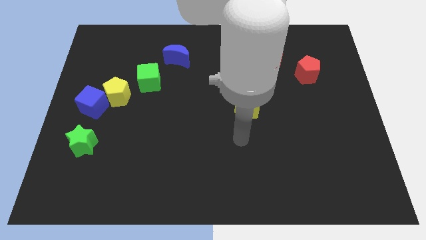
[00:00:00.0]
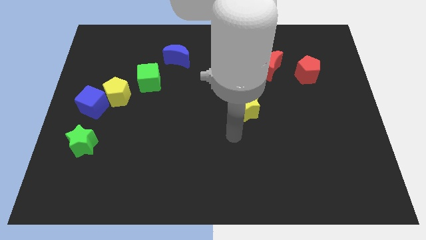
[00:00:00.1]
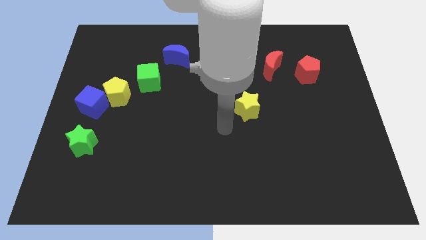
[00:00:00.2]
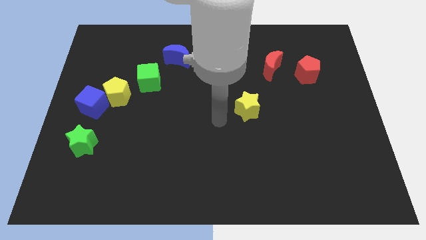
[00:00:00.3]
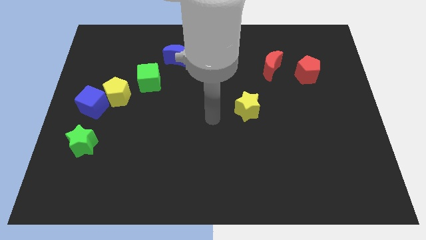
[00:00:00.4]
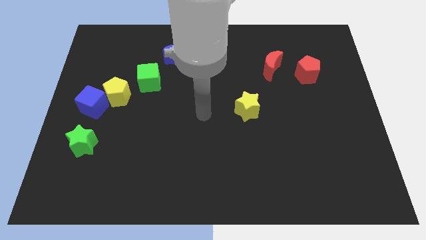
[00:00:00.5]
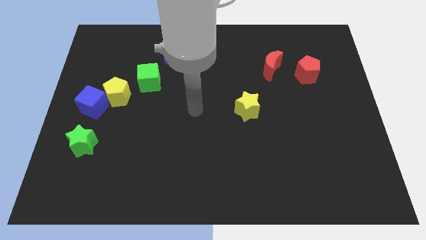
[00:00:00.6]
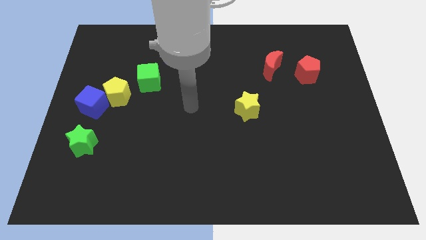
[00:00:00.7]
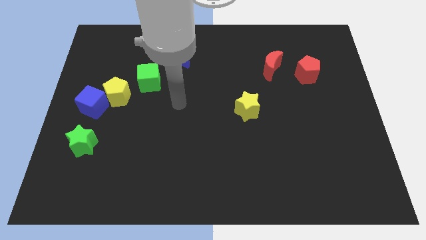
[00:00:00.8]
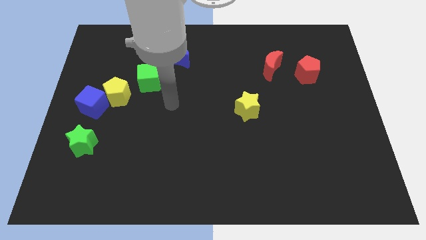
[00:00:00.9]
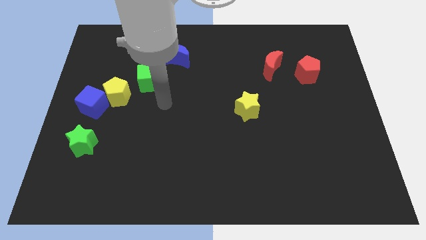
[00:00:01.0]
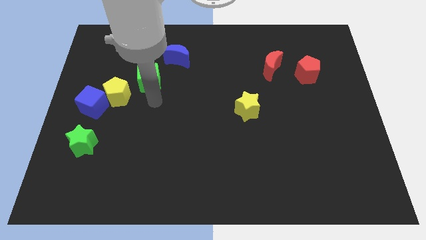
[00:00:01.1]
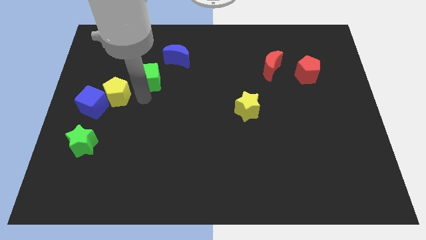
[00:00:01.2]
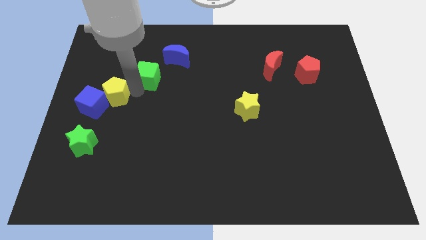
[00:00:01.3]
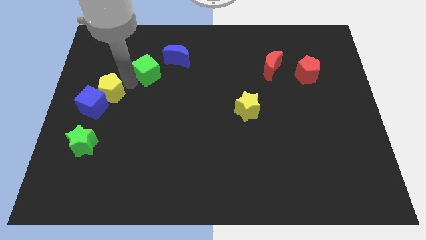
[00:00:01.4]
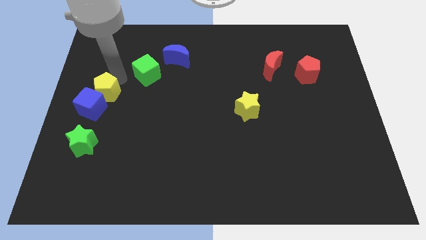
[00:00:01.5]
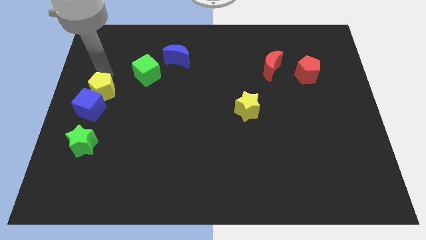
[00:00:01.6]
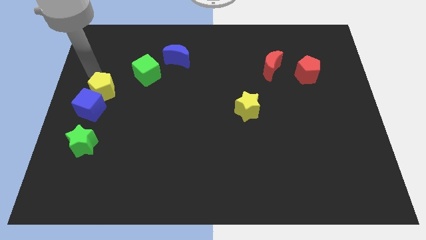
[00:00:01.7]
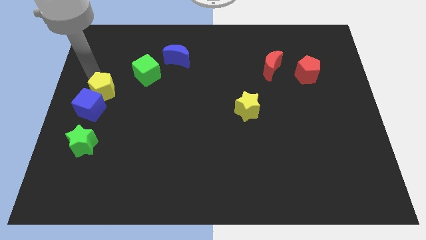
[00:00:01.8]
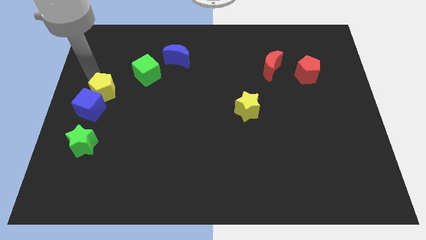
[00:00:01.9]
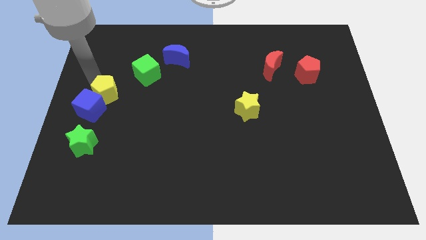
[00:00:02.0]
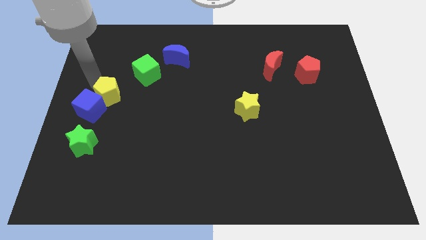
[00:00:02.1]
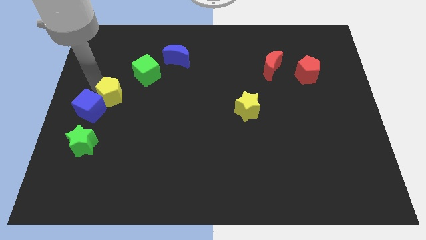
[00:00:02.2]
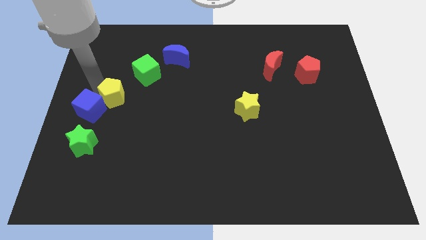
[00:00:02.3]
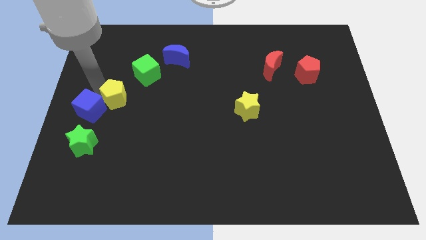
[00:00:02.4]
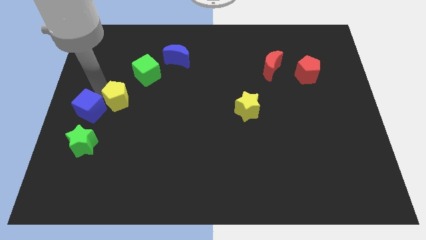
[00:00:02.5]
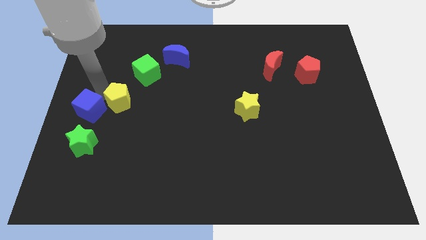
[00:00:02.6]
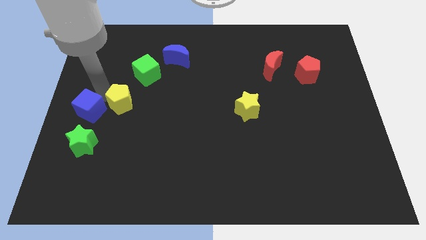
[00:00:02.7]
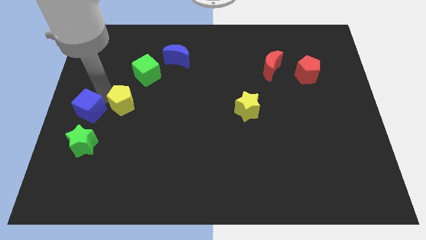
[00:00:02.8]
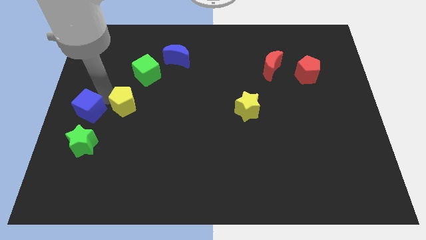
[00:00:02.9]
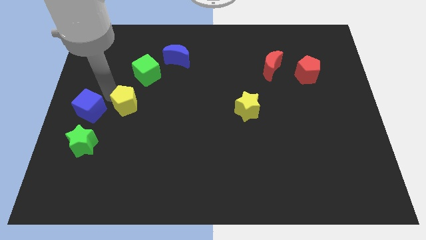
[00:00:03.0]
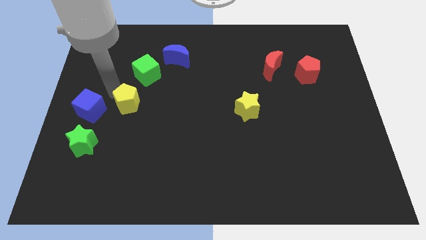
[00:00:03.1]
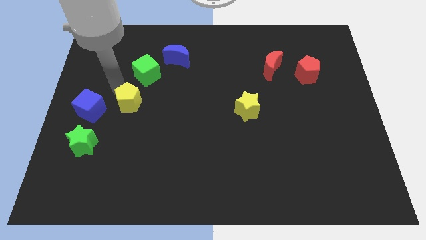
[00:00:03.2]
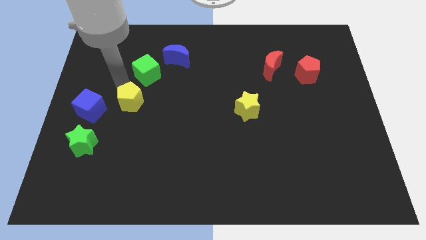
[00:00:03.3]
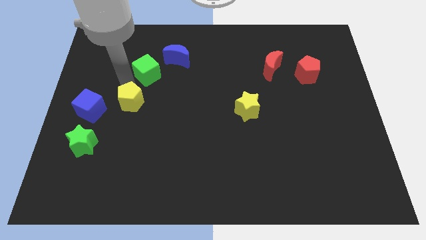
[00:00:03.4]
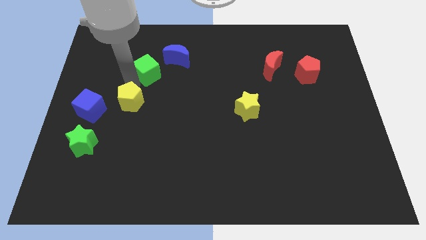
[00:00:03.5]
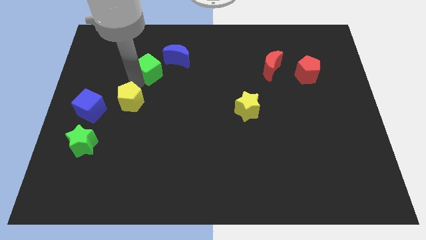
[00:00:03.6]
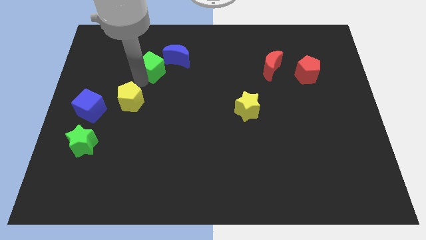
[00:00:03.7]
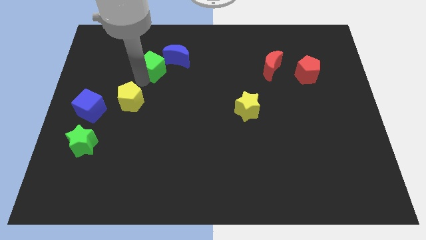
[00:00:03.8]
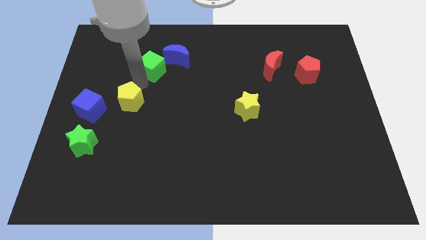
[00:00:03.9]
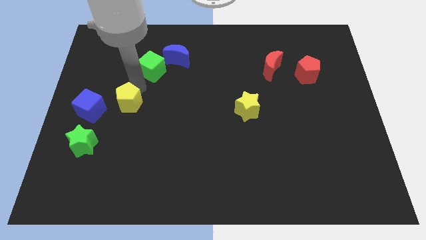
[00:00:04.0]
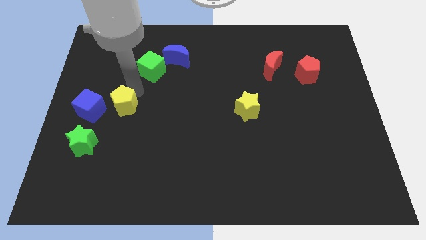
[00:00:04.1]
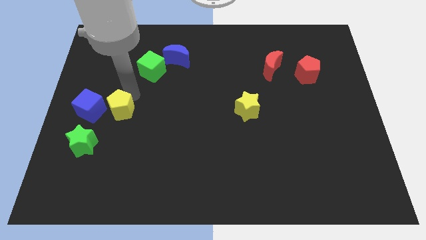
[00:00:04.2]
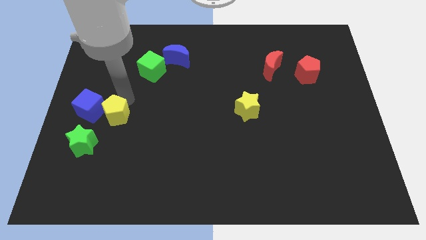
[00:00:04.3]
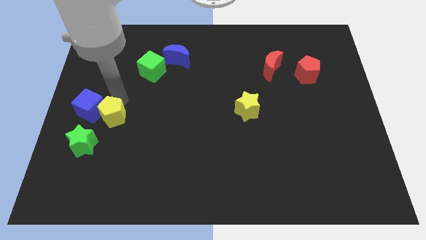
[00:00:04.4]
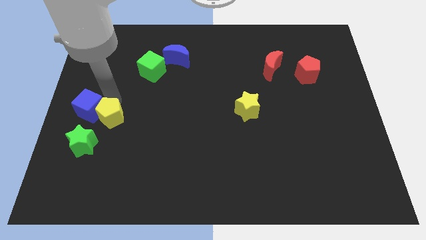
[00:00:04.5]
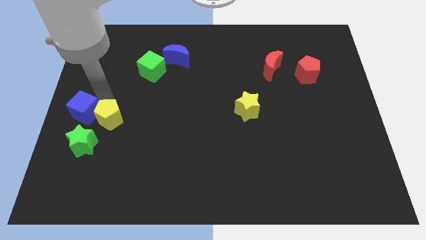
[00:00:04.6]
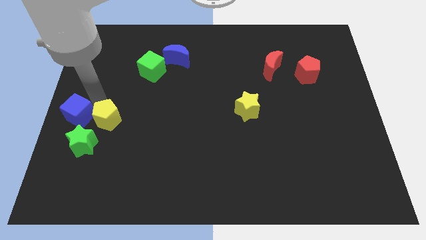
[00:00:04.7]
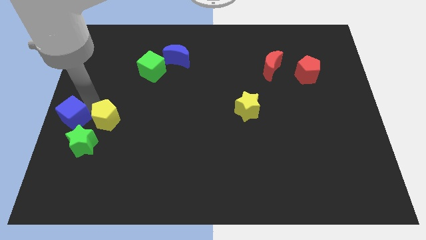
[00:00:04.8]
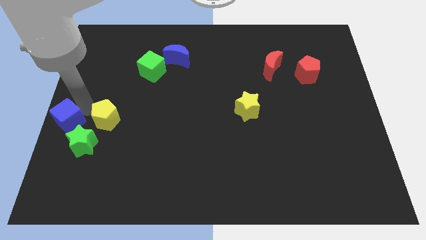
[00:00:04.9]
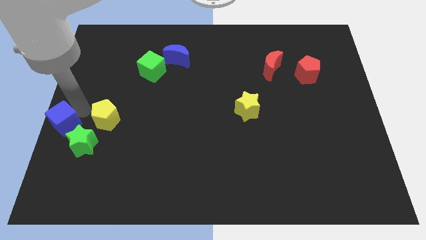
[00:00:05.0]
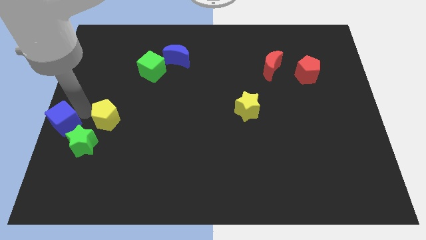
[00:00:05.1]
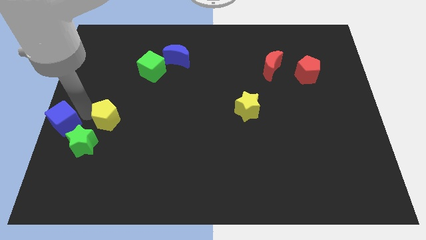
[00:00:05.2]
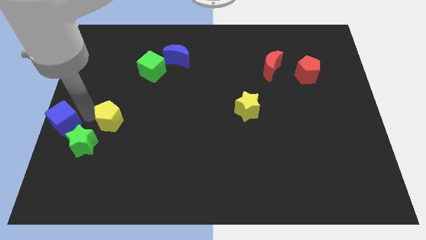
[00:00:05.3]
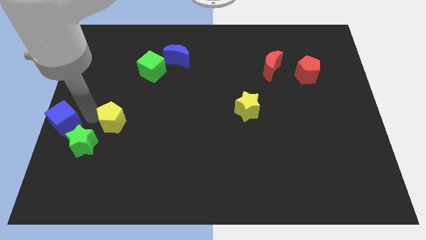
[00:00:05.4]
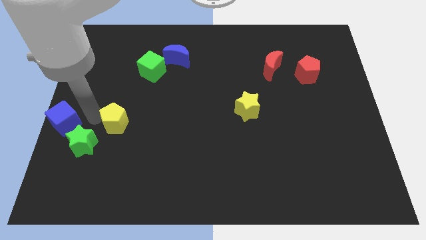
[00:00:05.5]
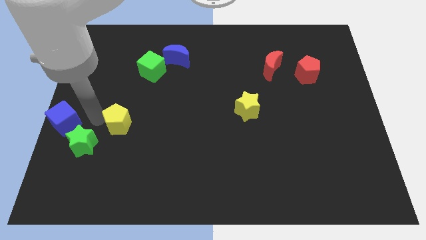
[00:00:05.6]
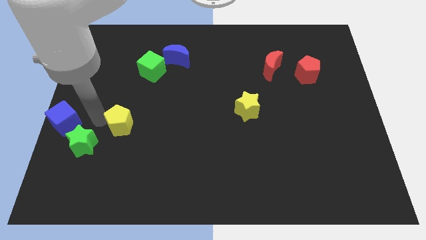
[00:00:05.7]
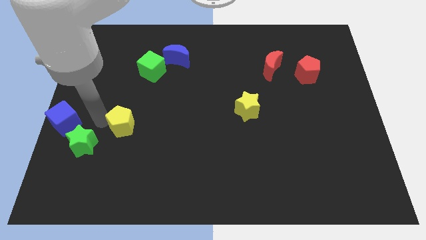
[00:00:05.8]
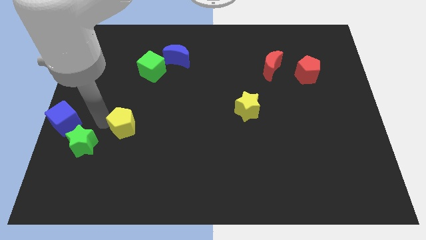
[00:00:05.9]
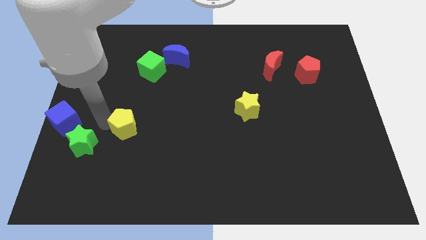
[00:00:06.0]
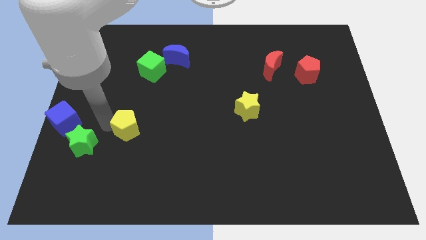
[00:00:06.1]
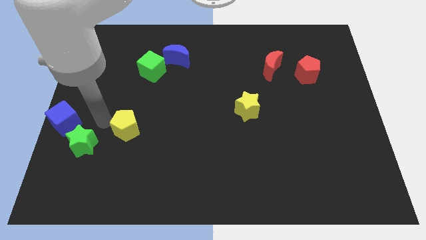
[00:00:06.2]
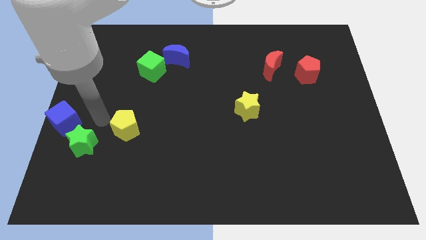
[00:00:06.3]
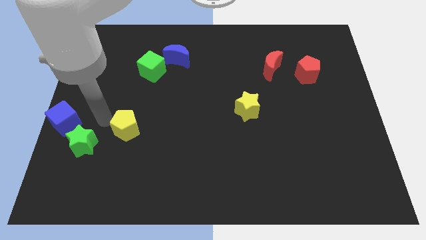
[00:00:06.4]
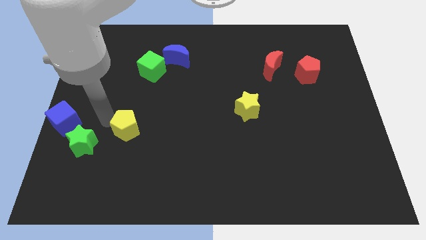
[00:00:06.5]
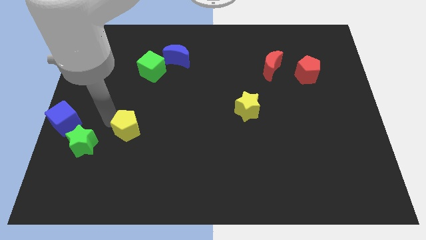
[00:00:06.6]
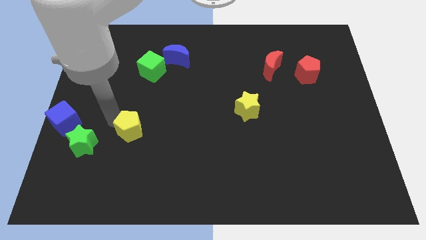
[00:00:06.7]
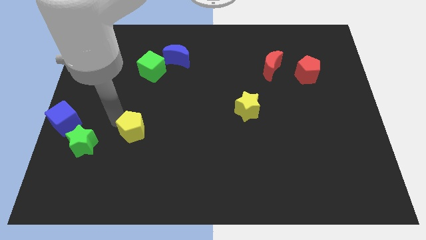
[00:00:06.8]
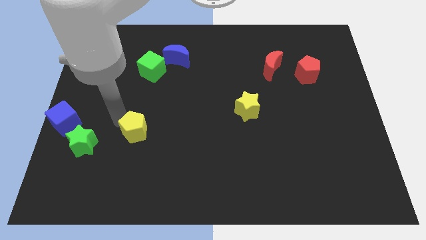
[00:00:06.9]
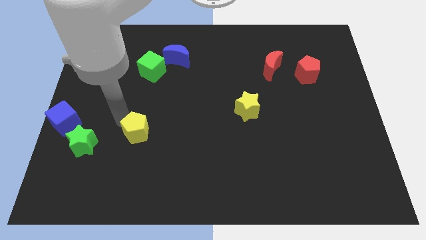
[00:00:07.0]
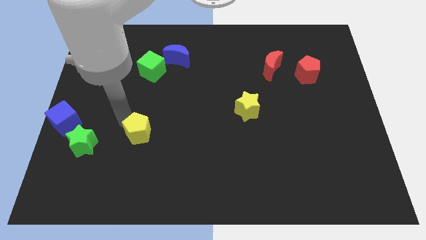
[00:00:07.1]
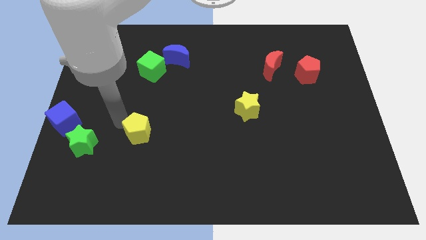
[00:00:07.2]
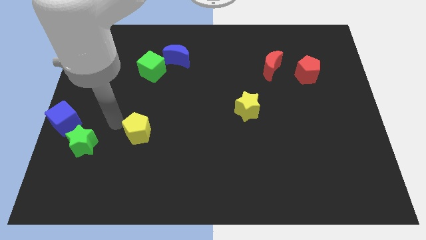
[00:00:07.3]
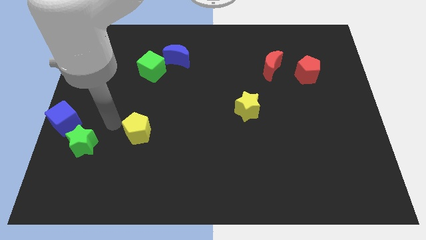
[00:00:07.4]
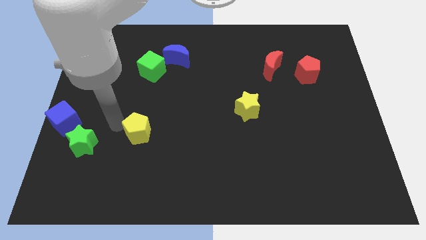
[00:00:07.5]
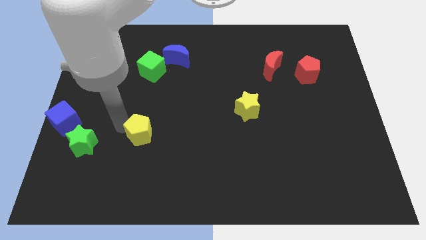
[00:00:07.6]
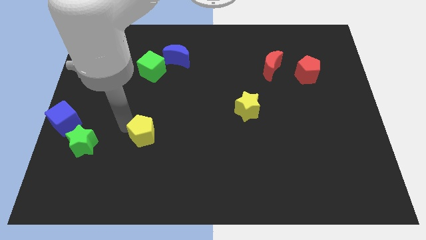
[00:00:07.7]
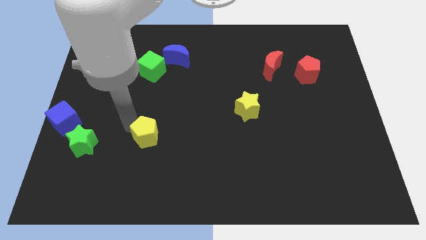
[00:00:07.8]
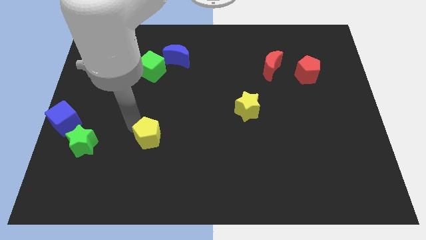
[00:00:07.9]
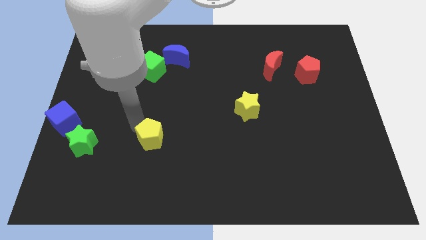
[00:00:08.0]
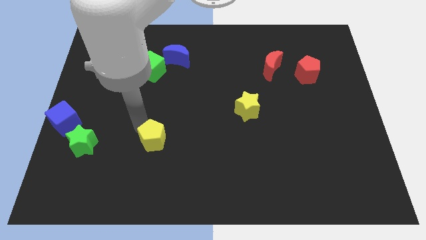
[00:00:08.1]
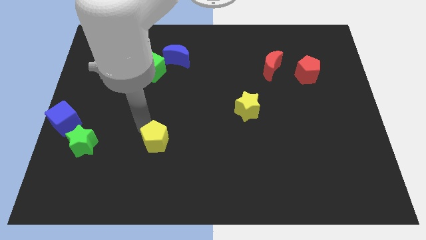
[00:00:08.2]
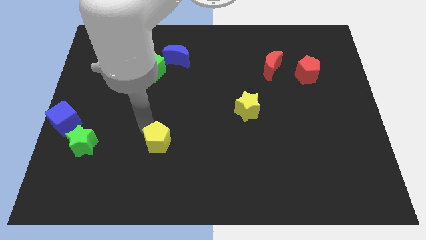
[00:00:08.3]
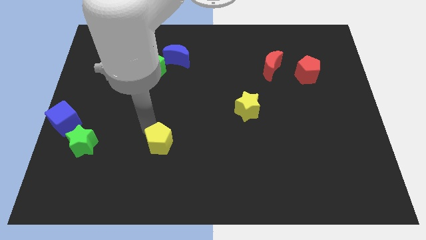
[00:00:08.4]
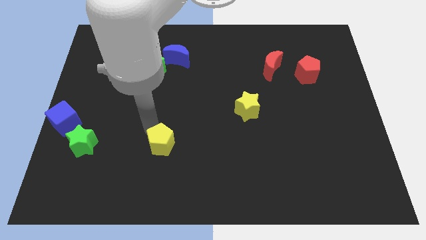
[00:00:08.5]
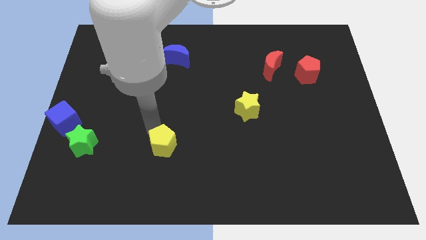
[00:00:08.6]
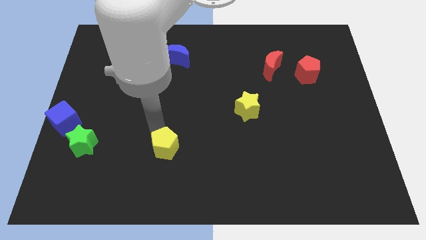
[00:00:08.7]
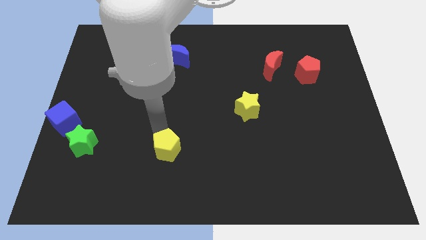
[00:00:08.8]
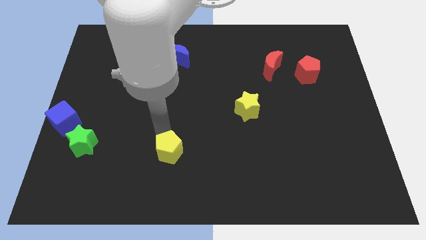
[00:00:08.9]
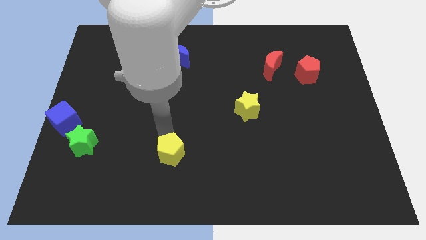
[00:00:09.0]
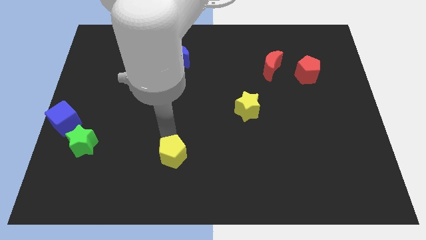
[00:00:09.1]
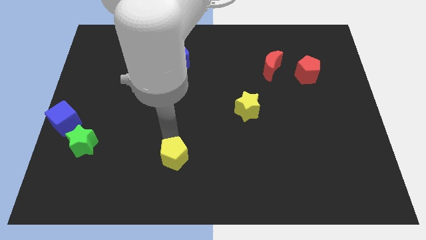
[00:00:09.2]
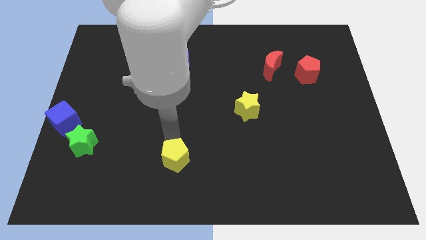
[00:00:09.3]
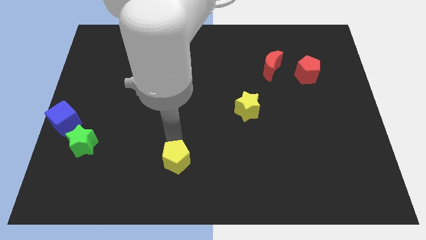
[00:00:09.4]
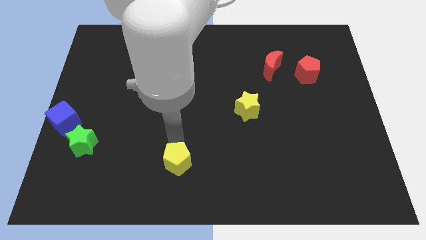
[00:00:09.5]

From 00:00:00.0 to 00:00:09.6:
push the yellow pentagon to the bottom
